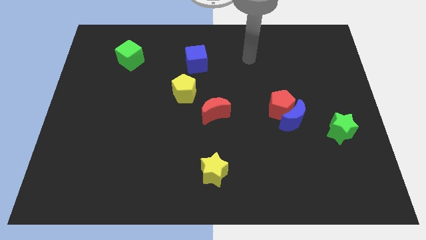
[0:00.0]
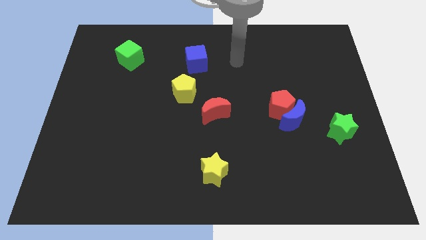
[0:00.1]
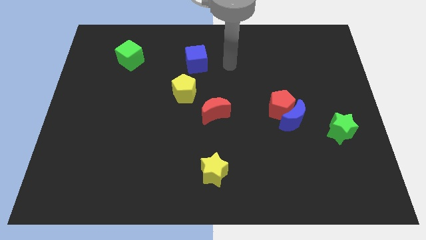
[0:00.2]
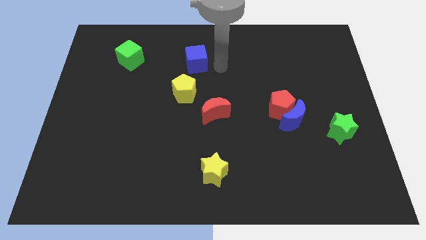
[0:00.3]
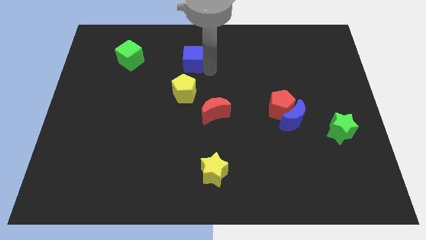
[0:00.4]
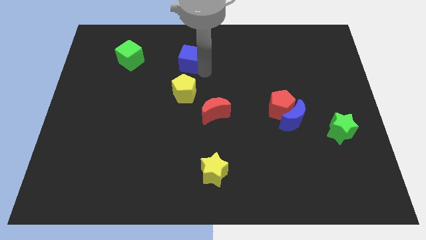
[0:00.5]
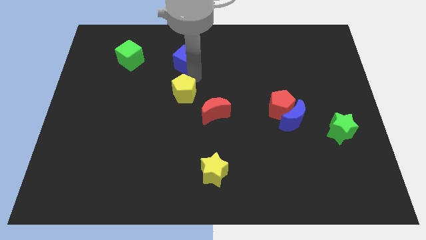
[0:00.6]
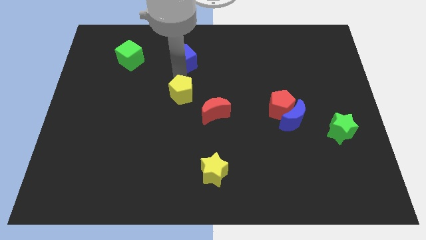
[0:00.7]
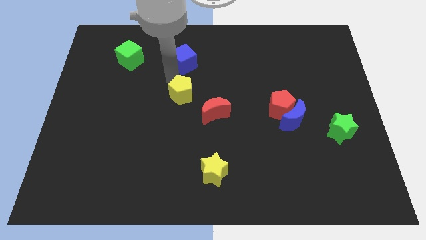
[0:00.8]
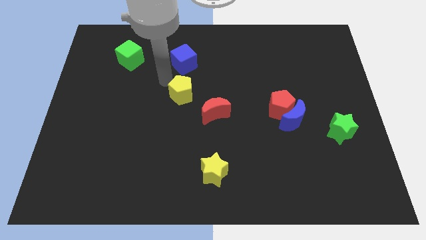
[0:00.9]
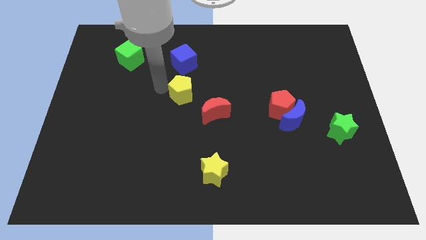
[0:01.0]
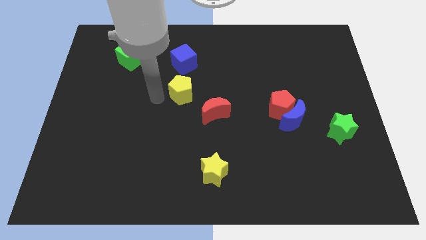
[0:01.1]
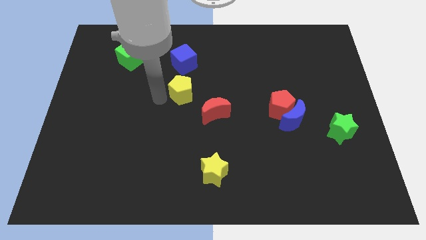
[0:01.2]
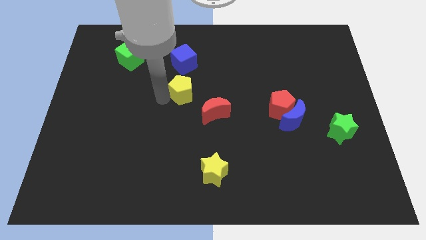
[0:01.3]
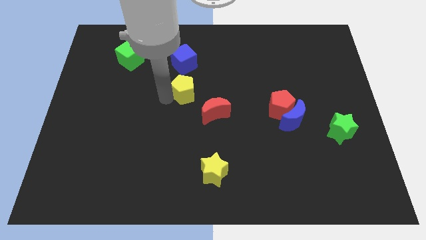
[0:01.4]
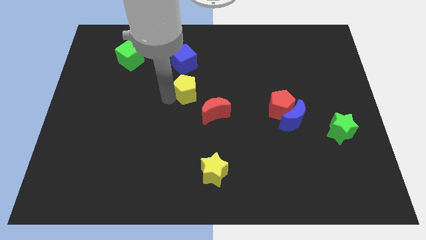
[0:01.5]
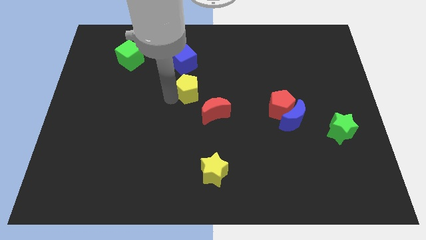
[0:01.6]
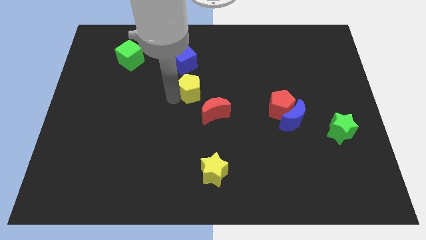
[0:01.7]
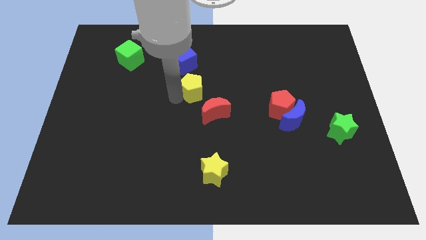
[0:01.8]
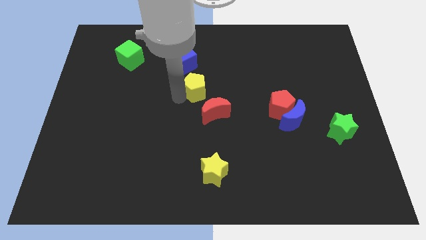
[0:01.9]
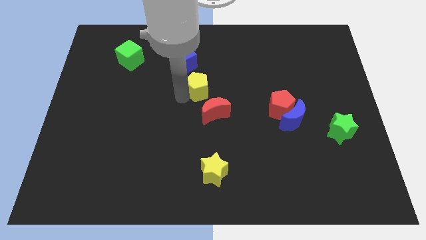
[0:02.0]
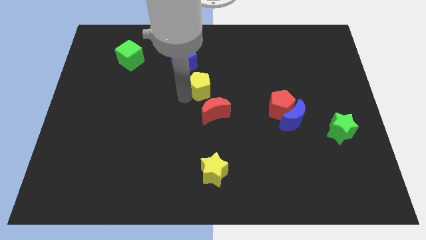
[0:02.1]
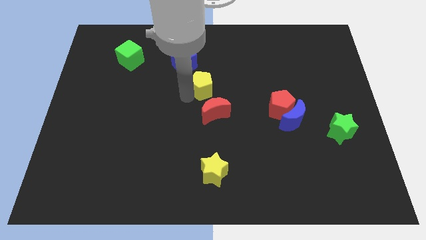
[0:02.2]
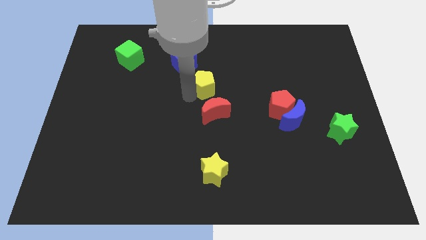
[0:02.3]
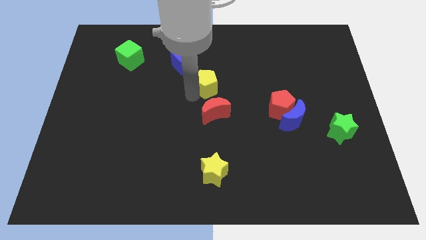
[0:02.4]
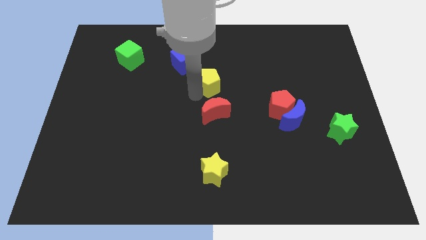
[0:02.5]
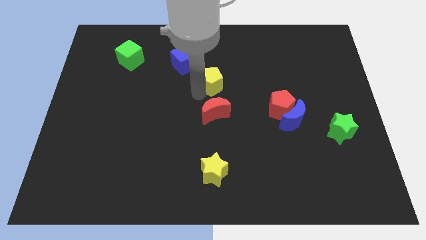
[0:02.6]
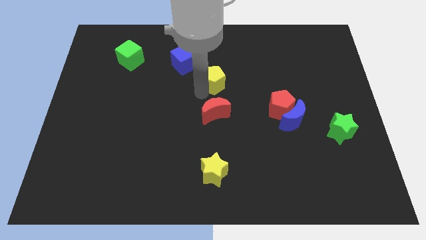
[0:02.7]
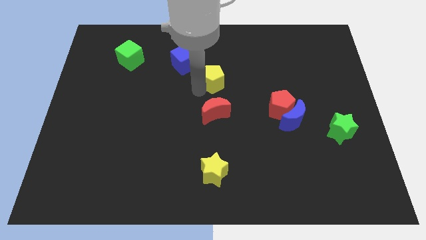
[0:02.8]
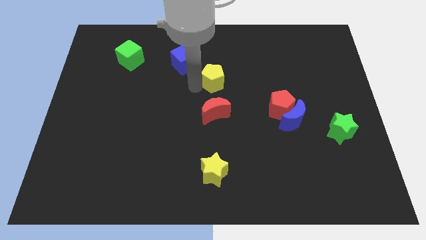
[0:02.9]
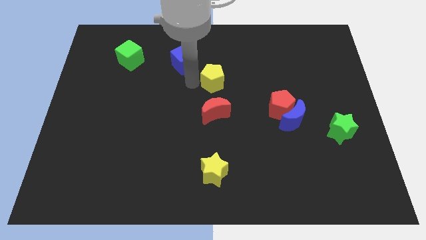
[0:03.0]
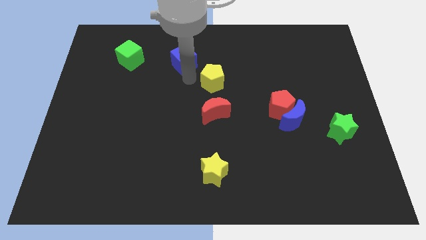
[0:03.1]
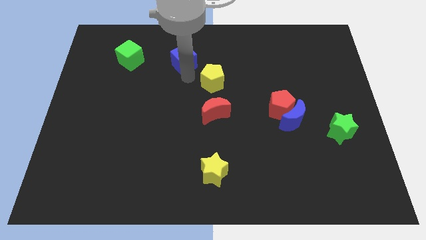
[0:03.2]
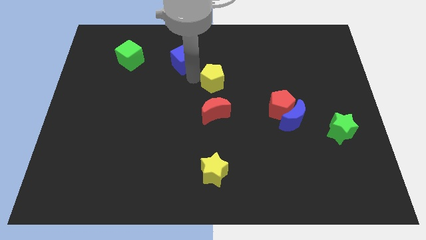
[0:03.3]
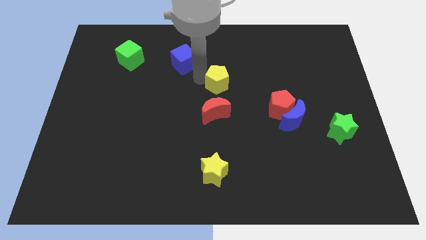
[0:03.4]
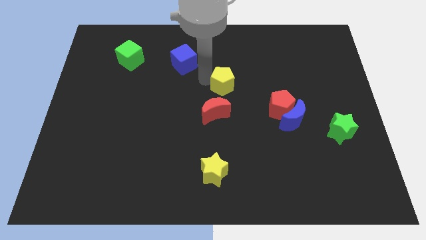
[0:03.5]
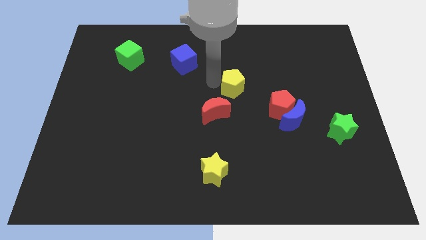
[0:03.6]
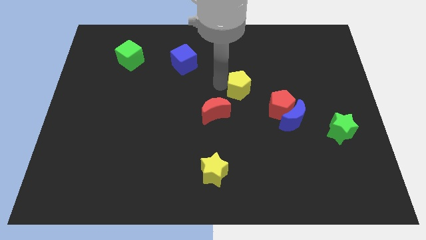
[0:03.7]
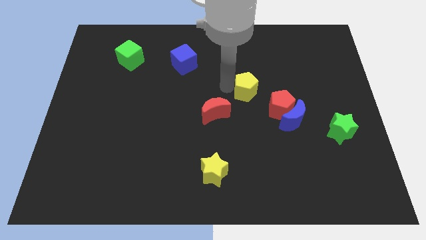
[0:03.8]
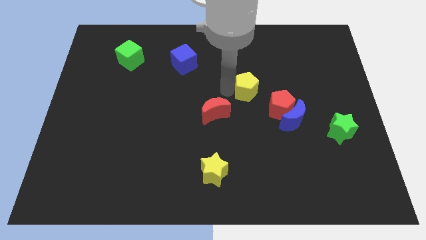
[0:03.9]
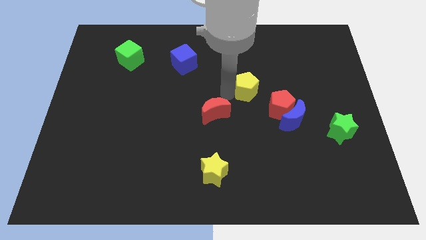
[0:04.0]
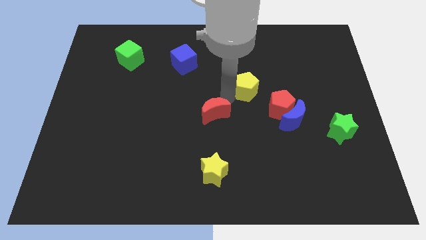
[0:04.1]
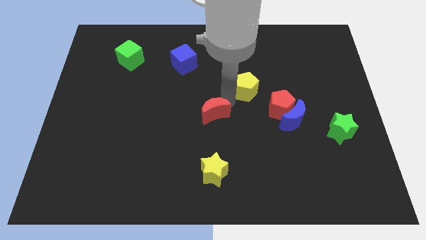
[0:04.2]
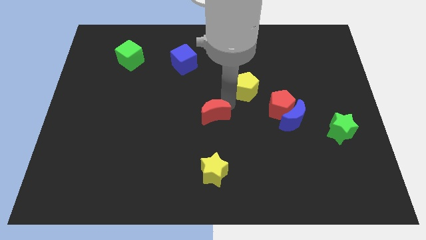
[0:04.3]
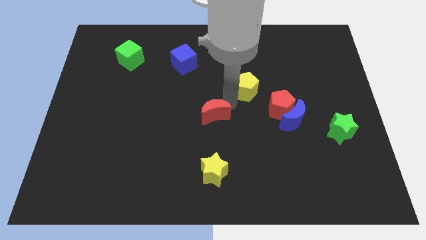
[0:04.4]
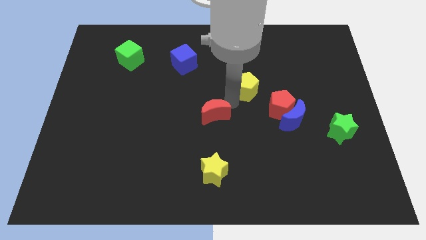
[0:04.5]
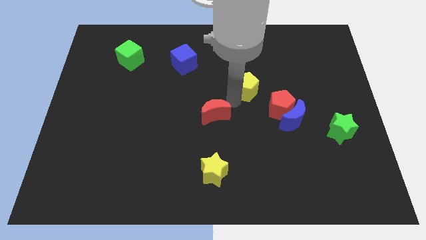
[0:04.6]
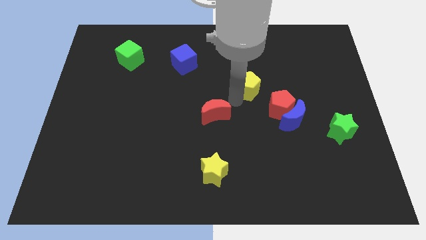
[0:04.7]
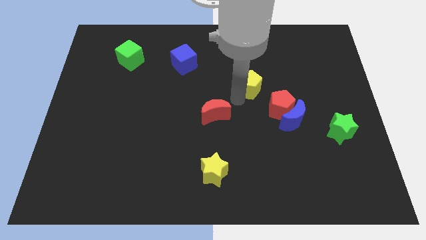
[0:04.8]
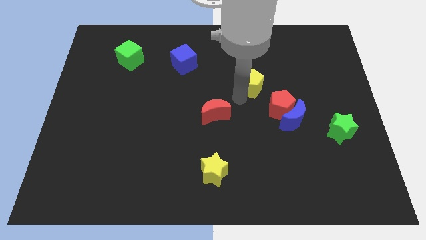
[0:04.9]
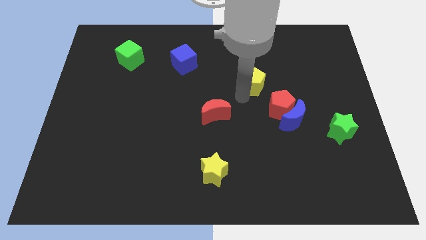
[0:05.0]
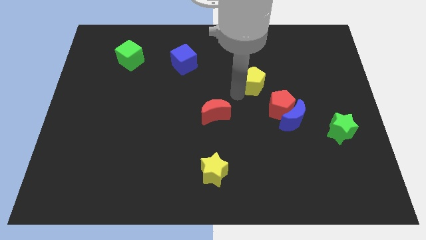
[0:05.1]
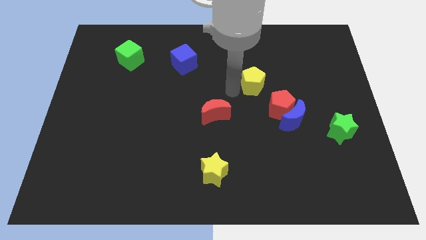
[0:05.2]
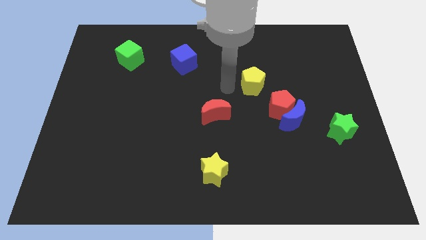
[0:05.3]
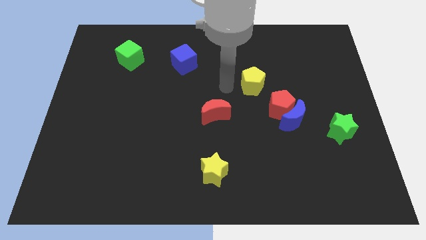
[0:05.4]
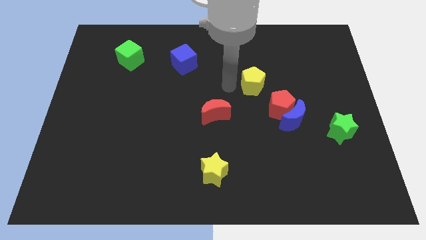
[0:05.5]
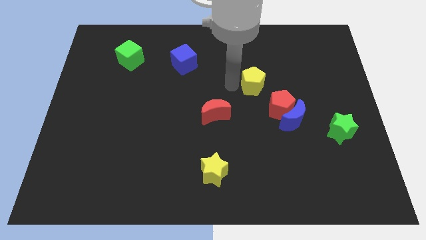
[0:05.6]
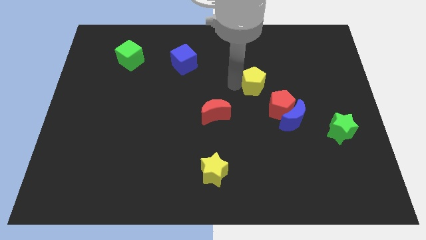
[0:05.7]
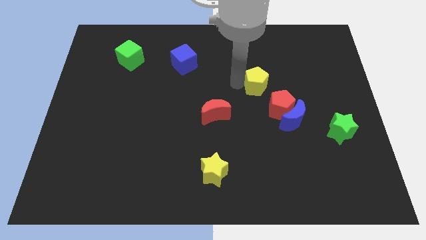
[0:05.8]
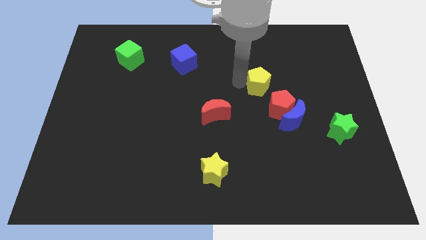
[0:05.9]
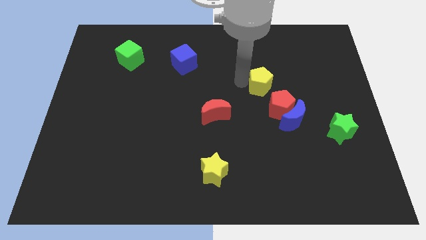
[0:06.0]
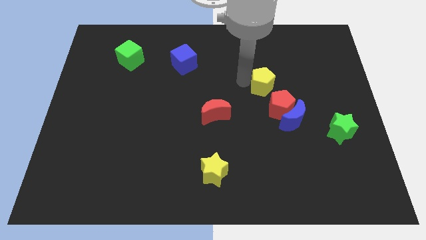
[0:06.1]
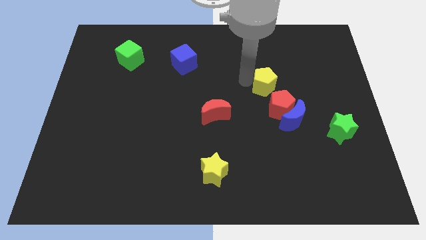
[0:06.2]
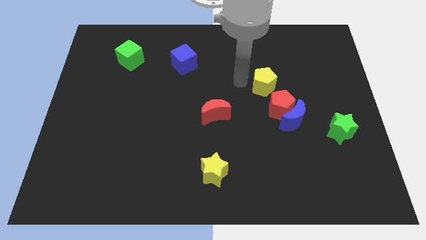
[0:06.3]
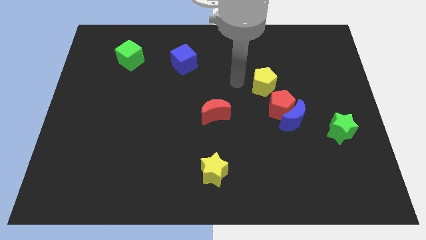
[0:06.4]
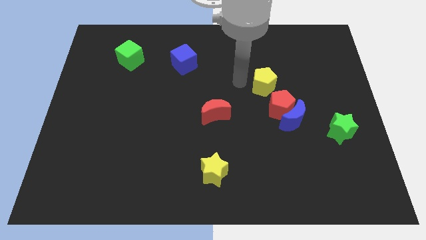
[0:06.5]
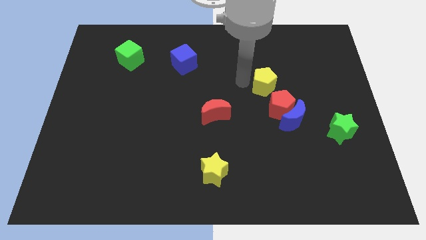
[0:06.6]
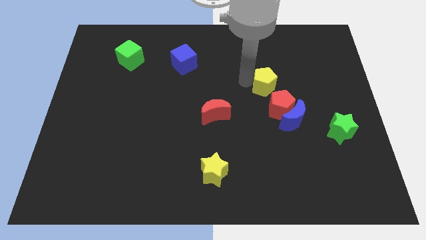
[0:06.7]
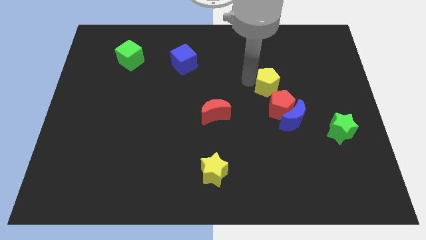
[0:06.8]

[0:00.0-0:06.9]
push the yellow pentagon to the right

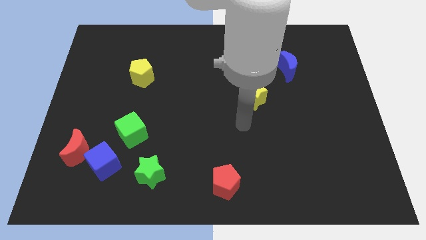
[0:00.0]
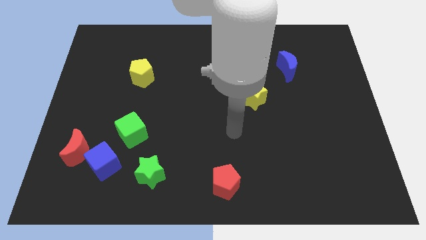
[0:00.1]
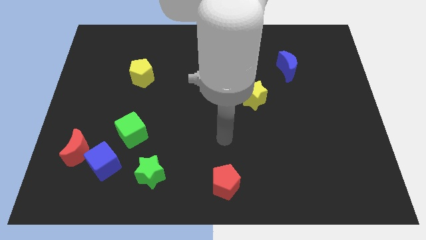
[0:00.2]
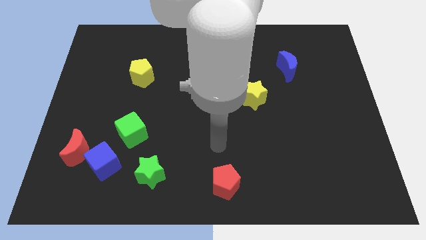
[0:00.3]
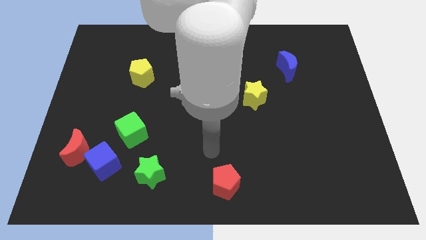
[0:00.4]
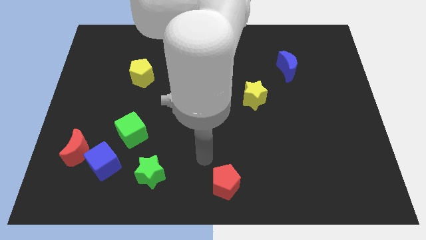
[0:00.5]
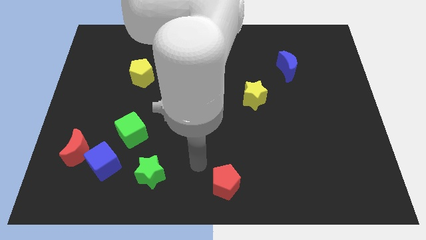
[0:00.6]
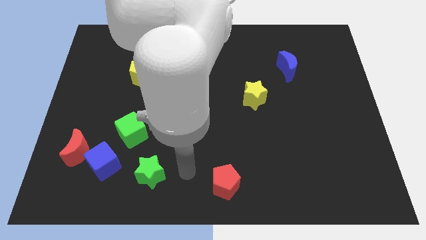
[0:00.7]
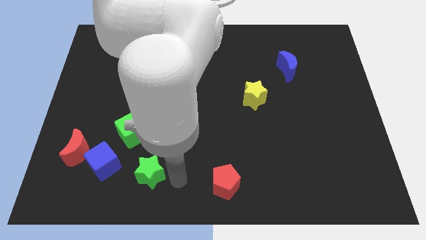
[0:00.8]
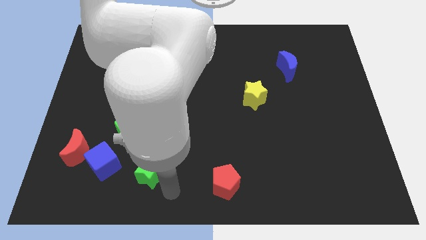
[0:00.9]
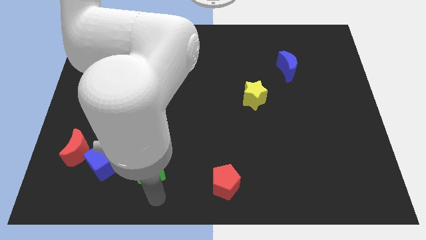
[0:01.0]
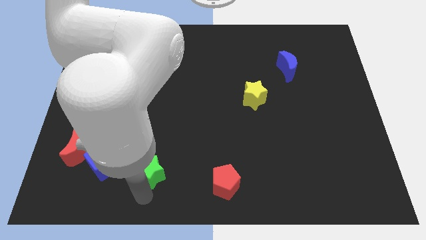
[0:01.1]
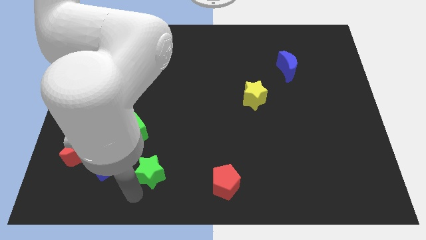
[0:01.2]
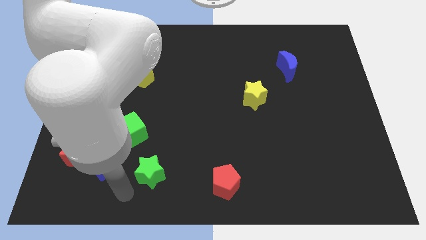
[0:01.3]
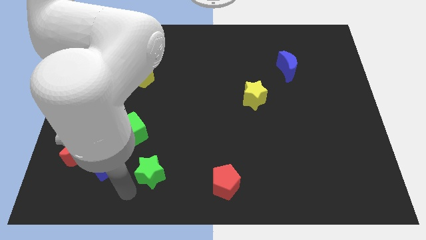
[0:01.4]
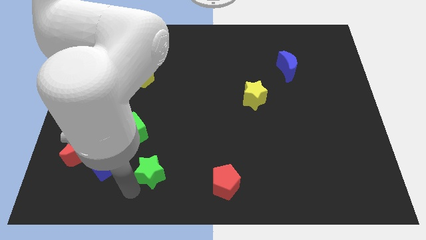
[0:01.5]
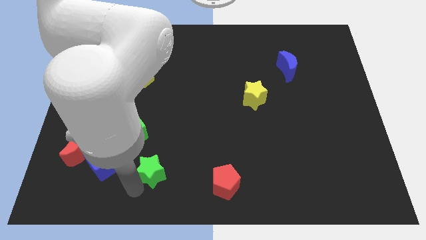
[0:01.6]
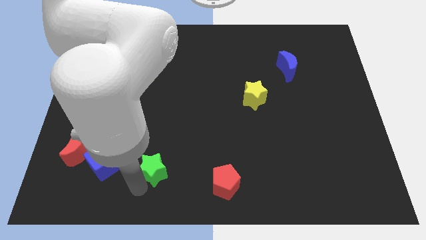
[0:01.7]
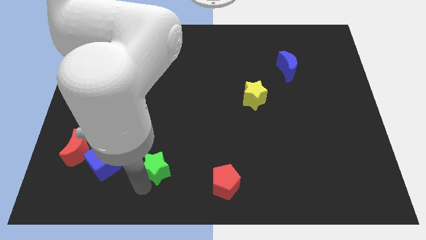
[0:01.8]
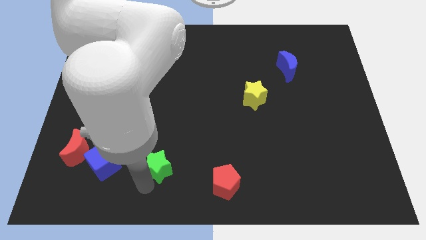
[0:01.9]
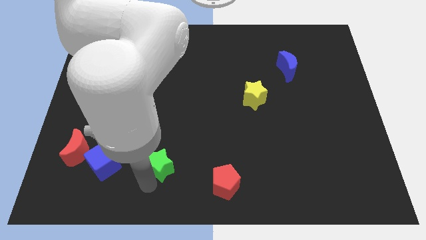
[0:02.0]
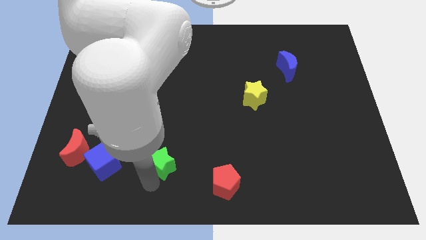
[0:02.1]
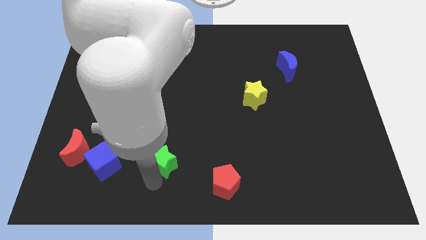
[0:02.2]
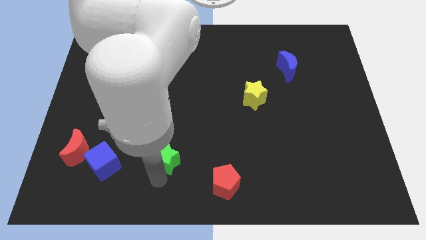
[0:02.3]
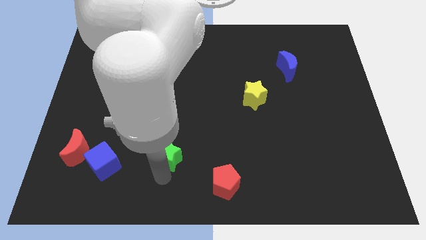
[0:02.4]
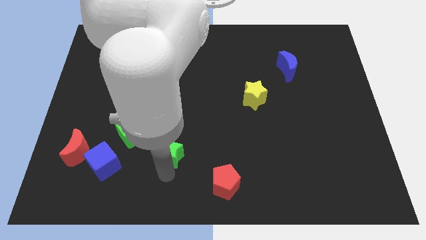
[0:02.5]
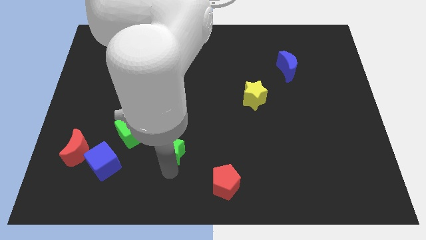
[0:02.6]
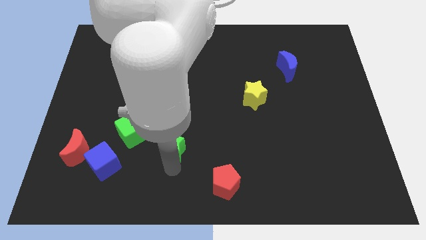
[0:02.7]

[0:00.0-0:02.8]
slide the green star a little bit upwards and right
